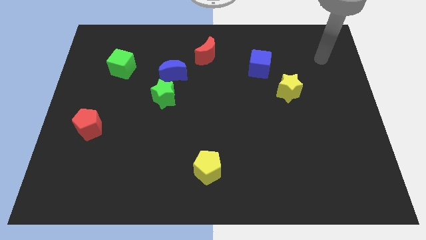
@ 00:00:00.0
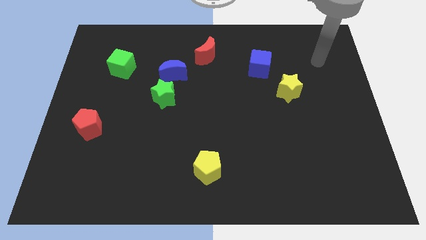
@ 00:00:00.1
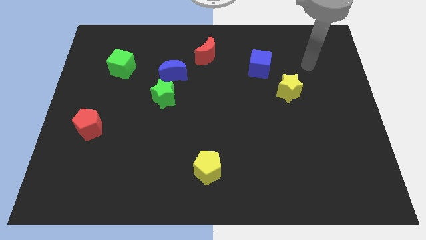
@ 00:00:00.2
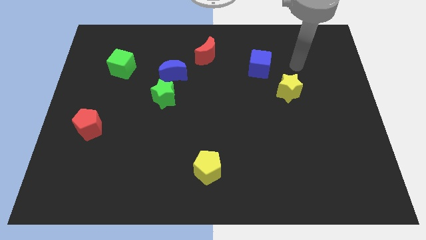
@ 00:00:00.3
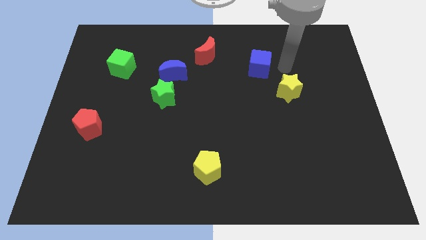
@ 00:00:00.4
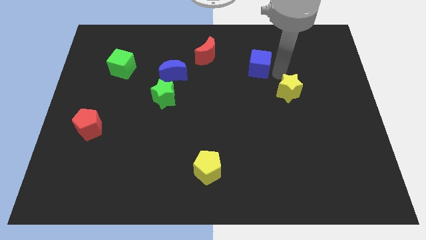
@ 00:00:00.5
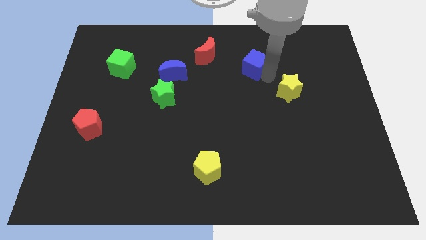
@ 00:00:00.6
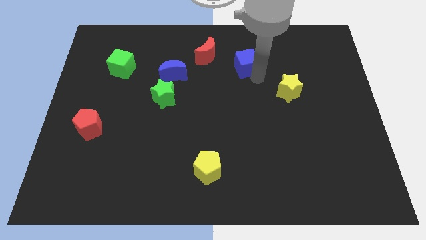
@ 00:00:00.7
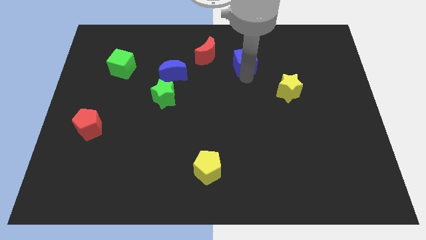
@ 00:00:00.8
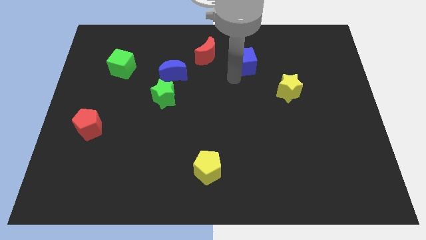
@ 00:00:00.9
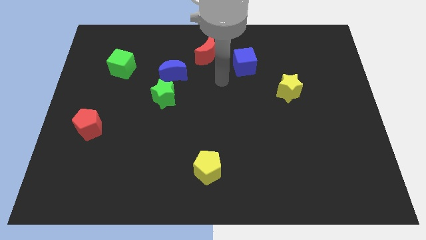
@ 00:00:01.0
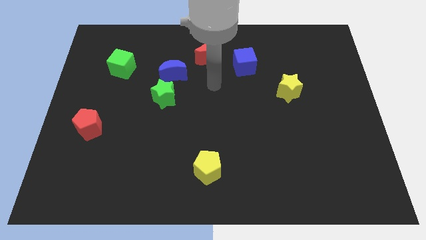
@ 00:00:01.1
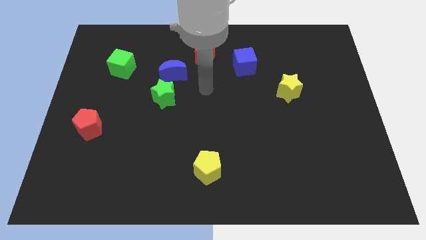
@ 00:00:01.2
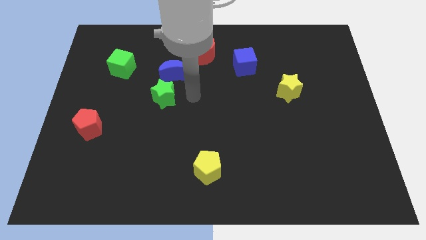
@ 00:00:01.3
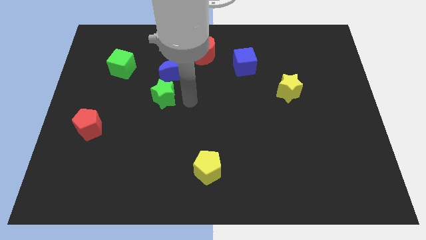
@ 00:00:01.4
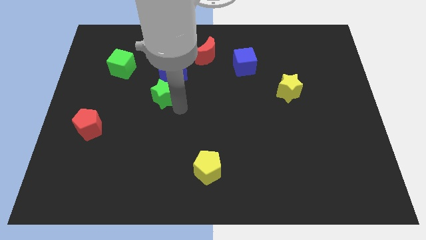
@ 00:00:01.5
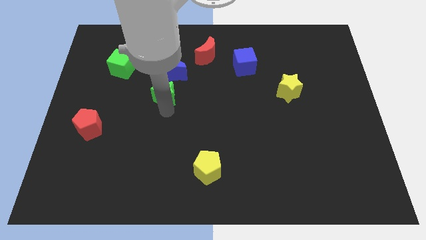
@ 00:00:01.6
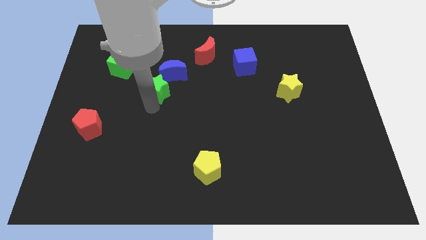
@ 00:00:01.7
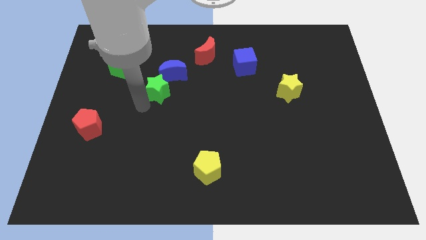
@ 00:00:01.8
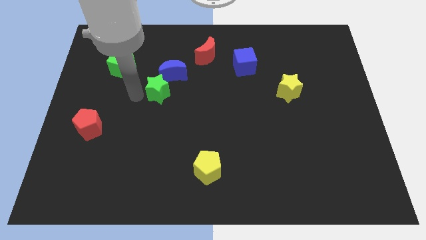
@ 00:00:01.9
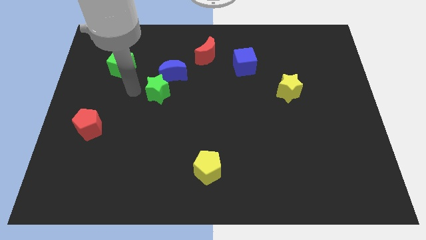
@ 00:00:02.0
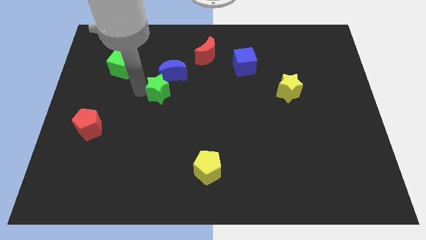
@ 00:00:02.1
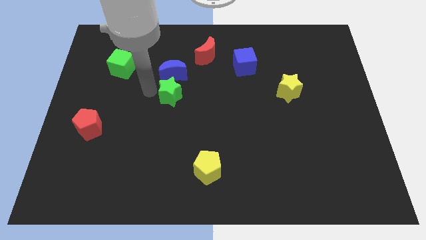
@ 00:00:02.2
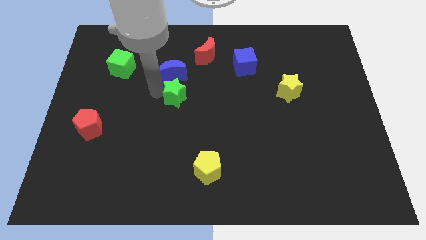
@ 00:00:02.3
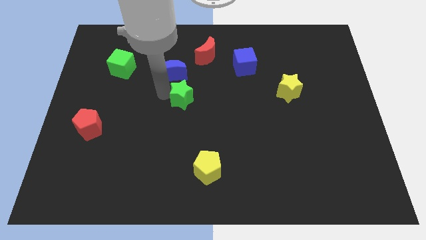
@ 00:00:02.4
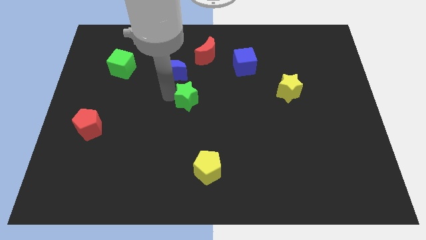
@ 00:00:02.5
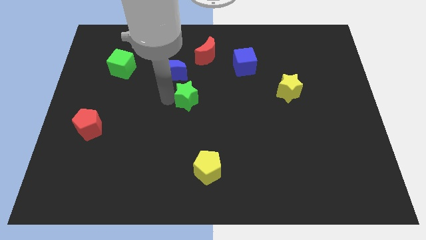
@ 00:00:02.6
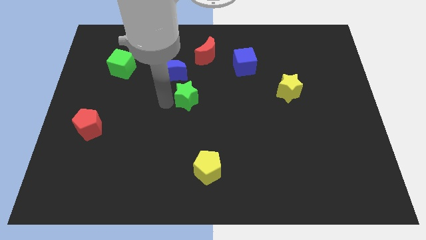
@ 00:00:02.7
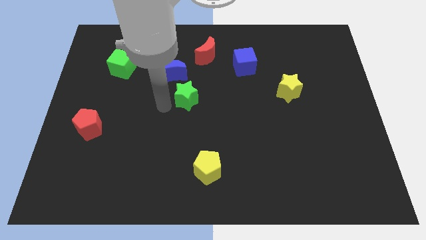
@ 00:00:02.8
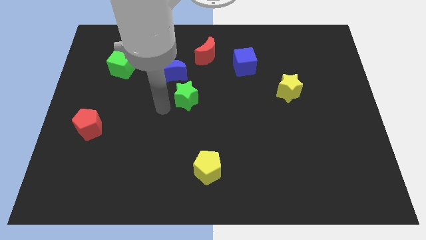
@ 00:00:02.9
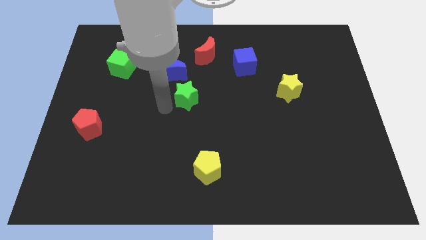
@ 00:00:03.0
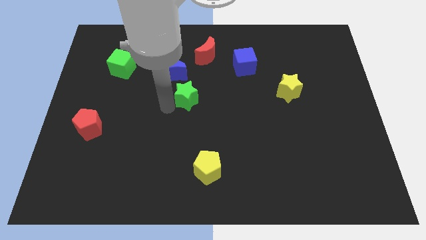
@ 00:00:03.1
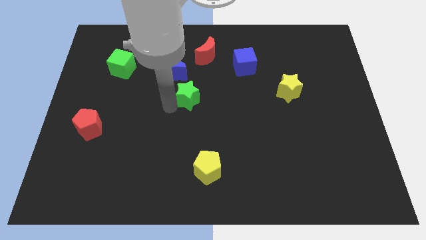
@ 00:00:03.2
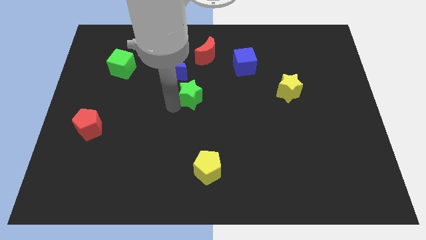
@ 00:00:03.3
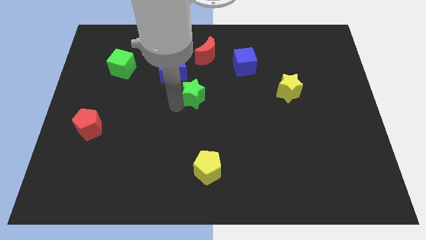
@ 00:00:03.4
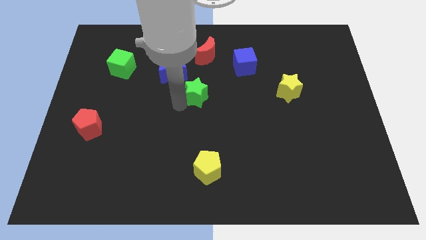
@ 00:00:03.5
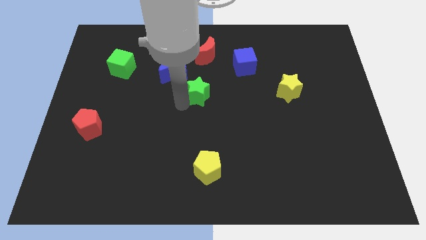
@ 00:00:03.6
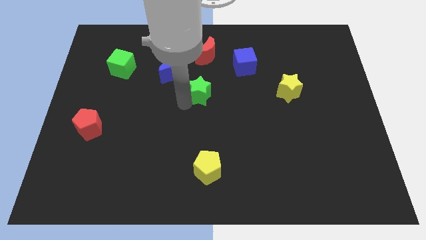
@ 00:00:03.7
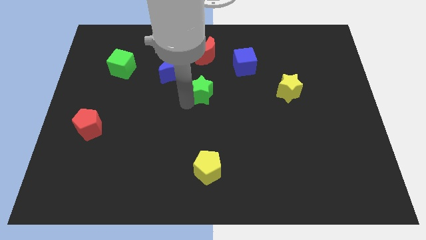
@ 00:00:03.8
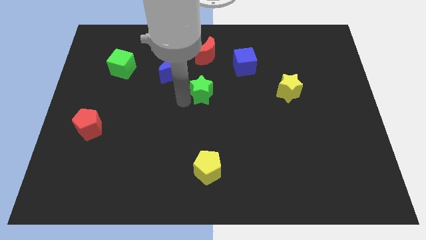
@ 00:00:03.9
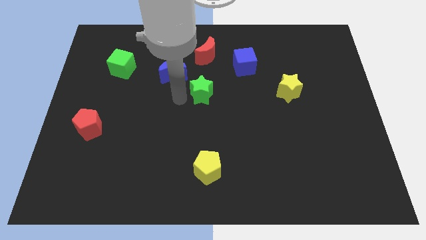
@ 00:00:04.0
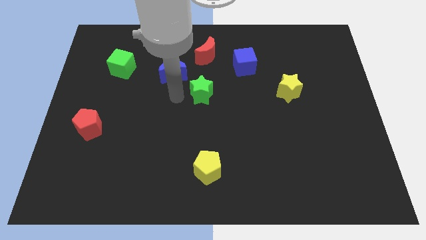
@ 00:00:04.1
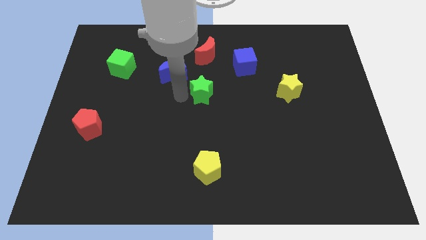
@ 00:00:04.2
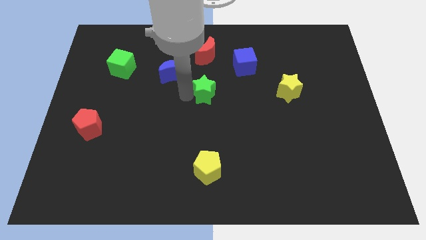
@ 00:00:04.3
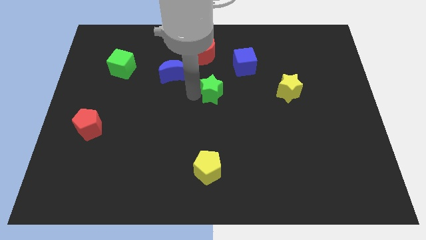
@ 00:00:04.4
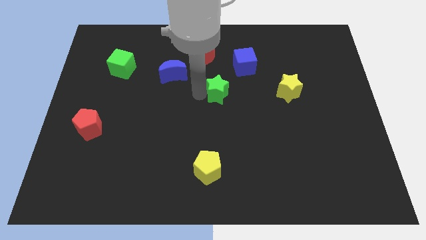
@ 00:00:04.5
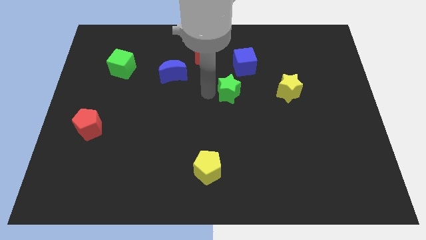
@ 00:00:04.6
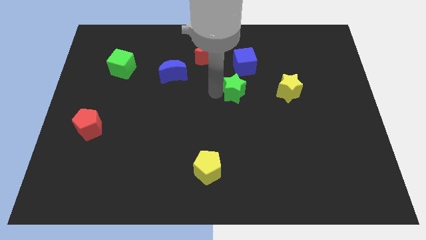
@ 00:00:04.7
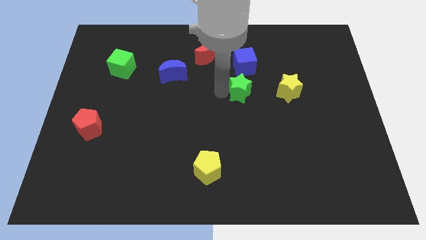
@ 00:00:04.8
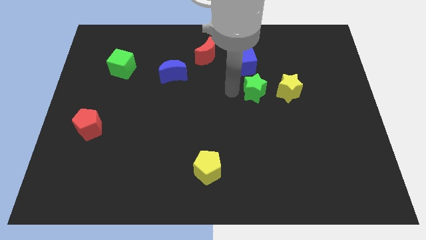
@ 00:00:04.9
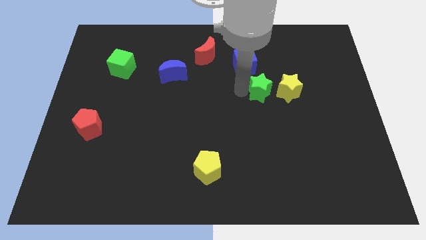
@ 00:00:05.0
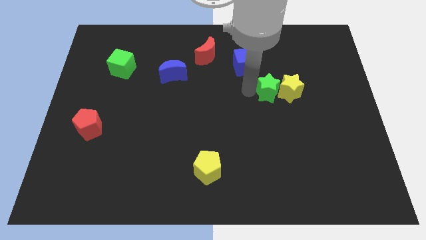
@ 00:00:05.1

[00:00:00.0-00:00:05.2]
slide the green star towards the yellow star

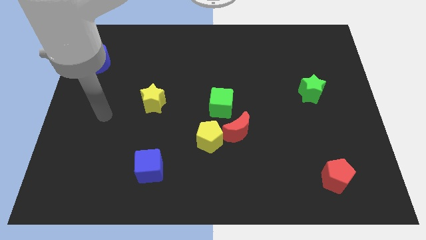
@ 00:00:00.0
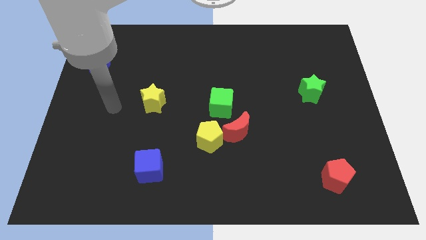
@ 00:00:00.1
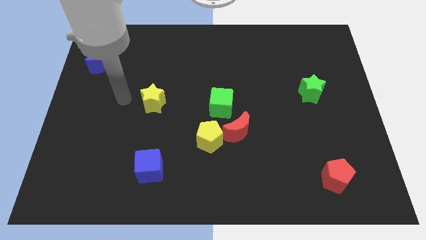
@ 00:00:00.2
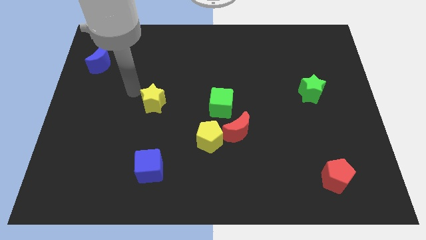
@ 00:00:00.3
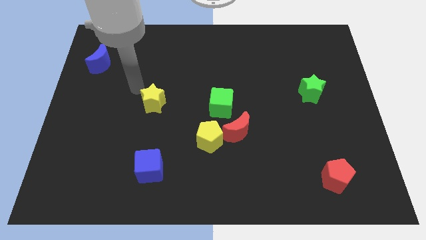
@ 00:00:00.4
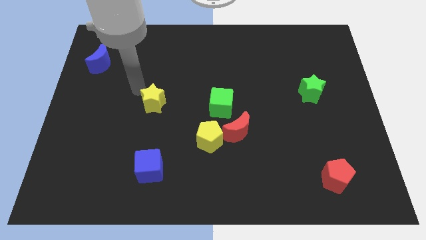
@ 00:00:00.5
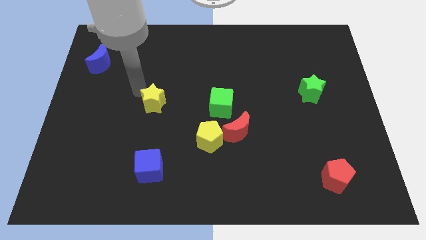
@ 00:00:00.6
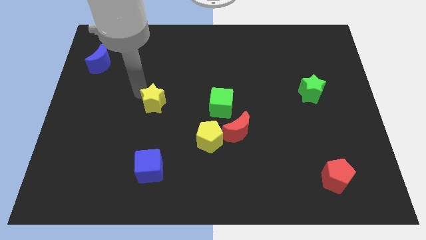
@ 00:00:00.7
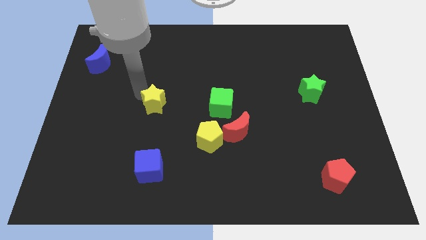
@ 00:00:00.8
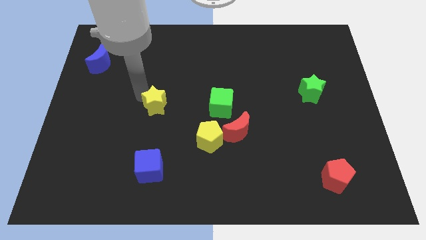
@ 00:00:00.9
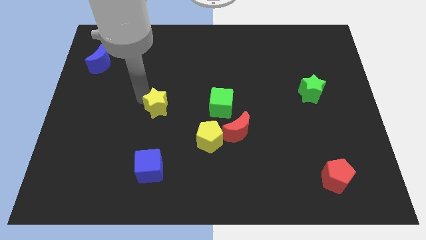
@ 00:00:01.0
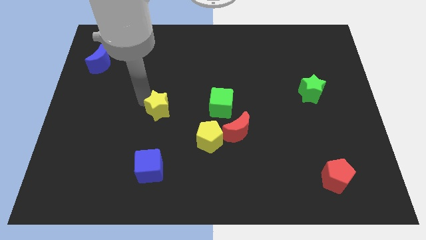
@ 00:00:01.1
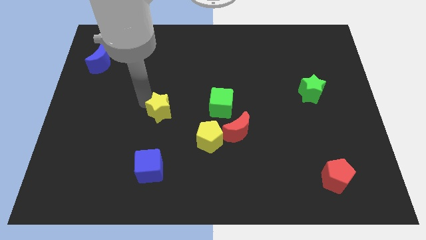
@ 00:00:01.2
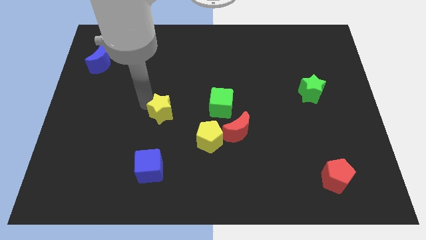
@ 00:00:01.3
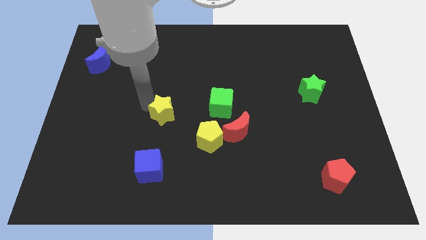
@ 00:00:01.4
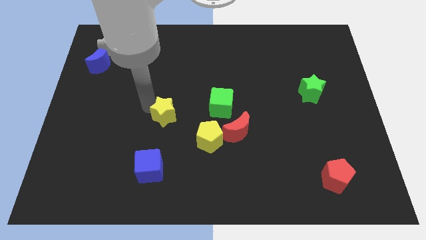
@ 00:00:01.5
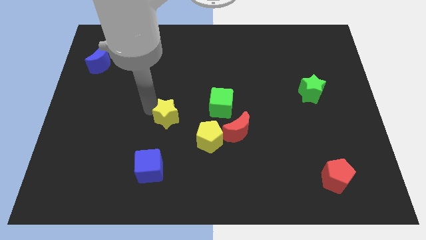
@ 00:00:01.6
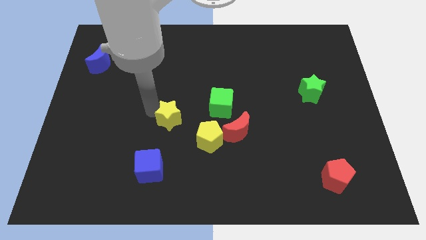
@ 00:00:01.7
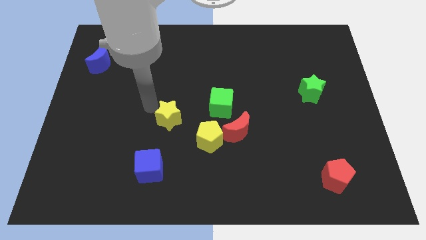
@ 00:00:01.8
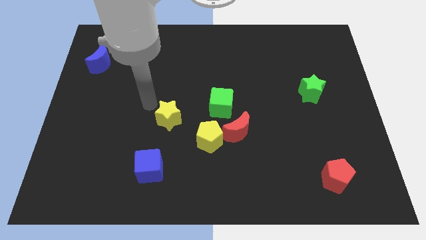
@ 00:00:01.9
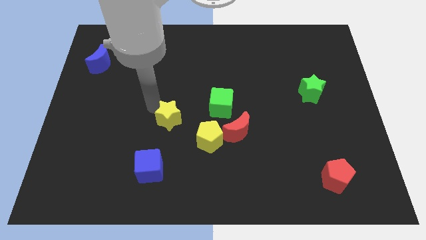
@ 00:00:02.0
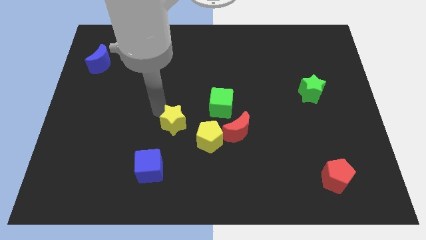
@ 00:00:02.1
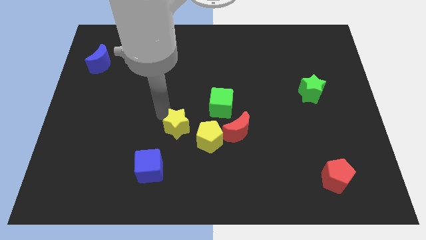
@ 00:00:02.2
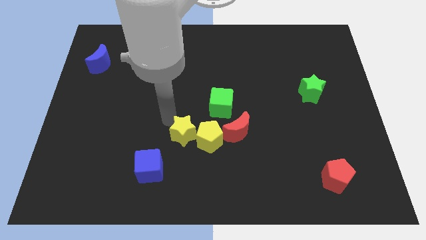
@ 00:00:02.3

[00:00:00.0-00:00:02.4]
slide the yellow star next to the yellow pentagon
